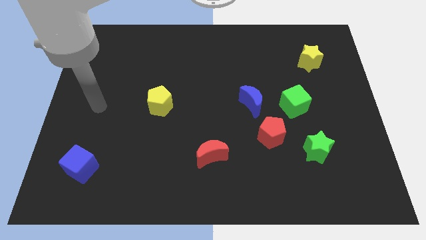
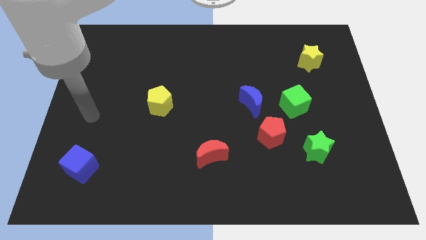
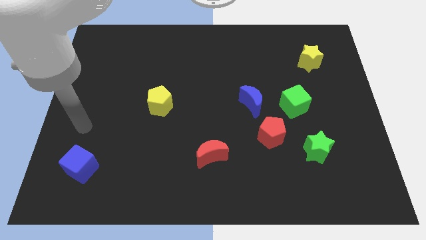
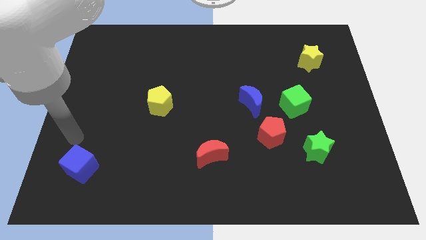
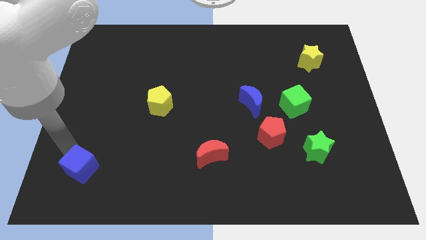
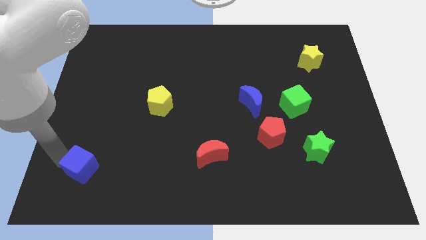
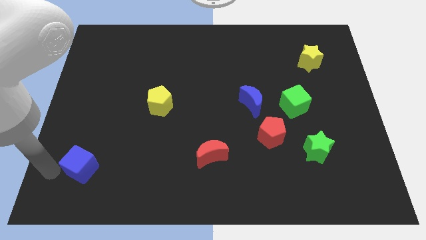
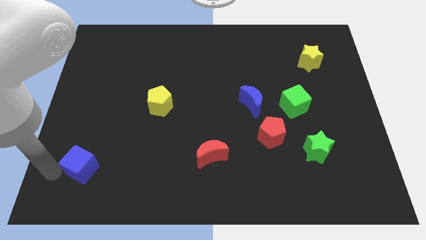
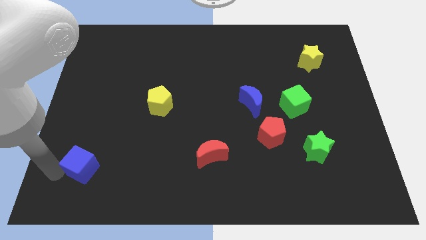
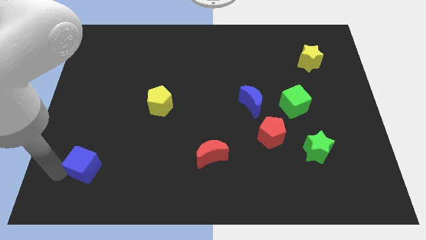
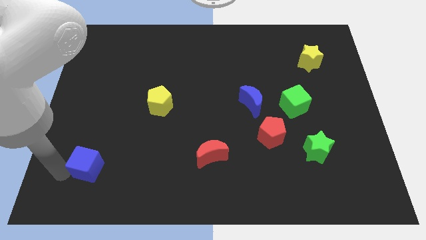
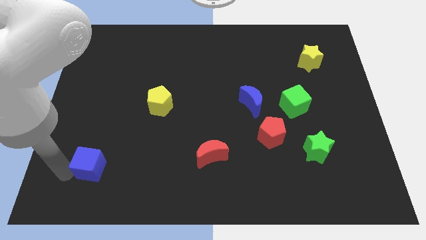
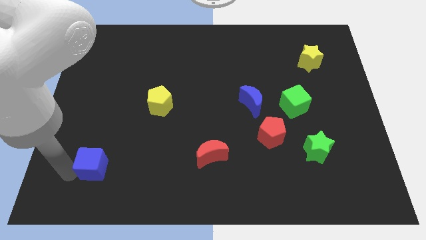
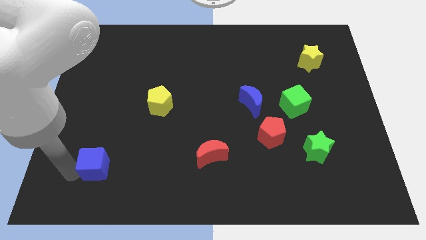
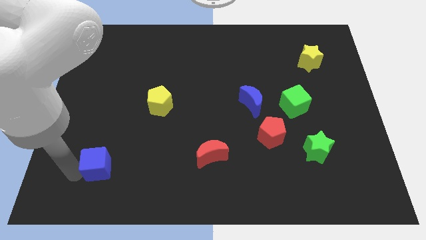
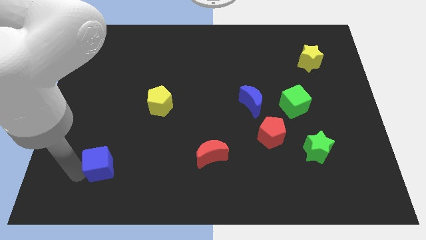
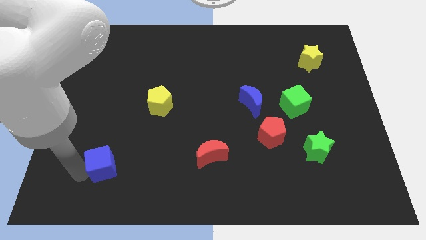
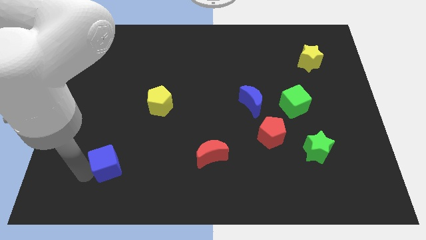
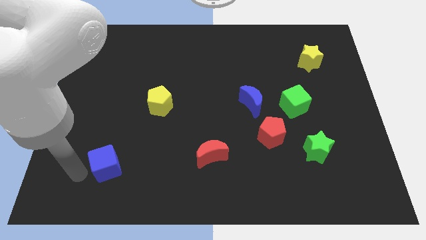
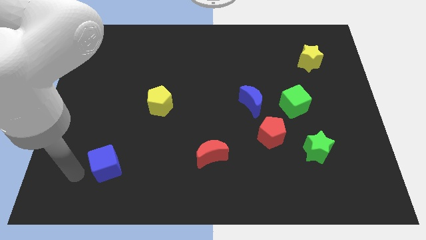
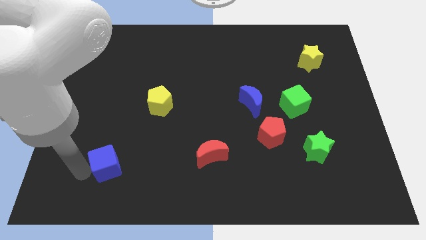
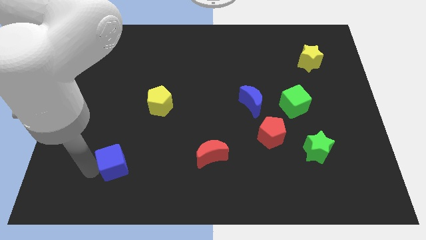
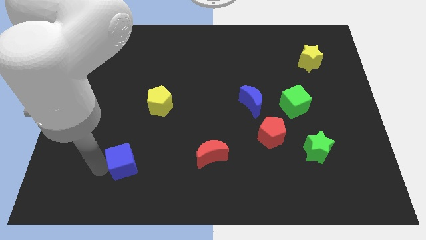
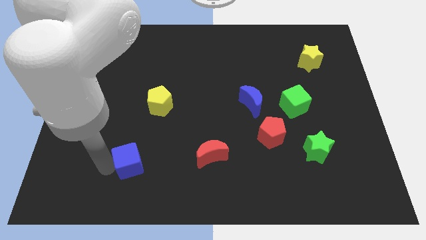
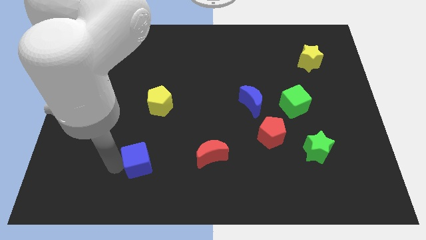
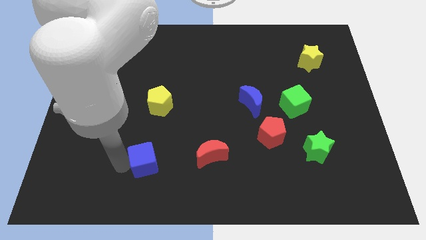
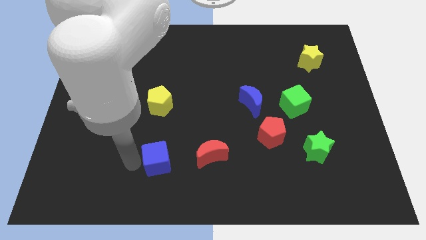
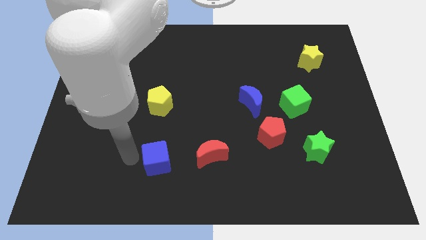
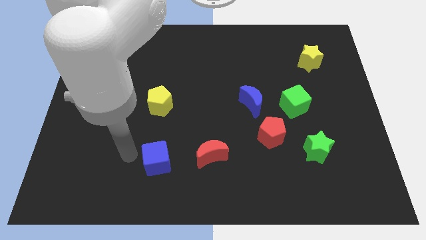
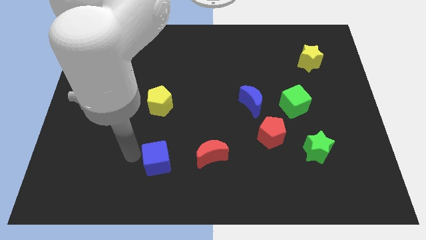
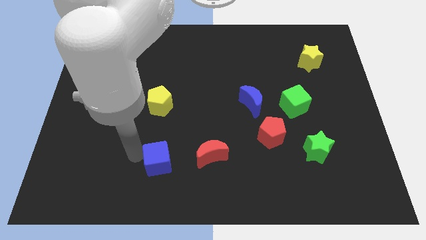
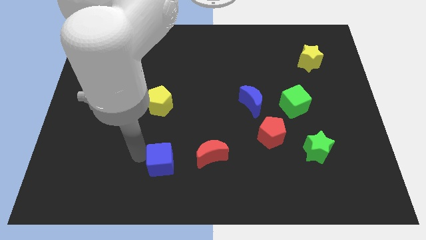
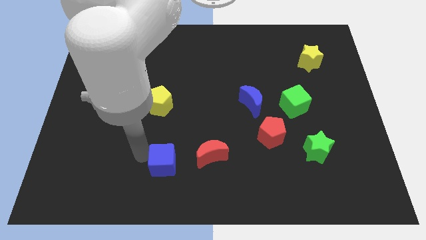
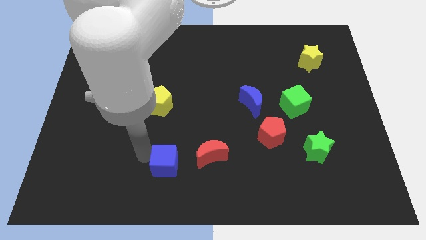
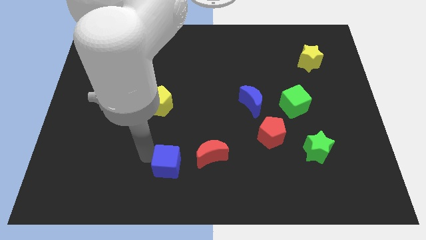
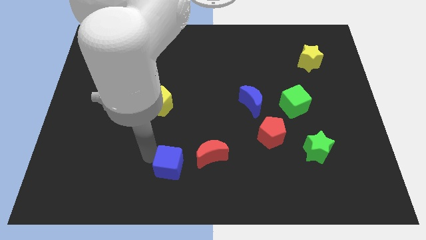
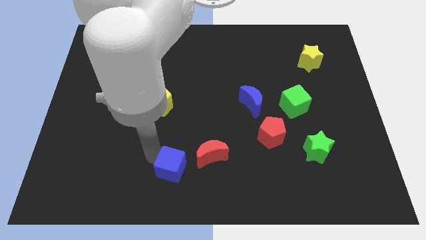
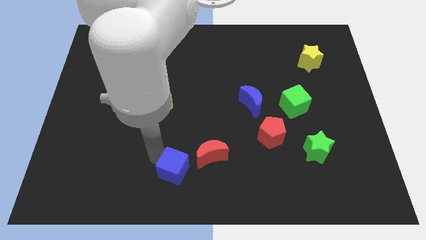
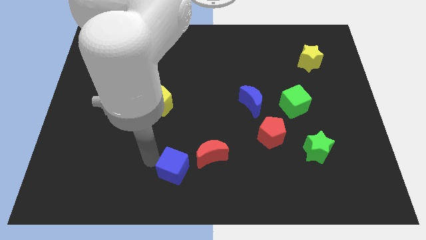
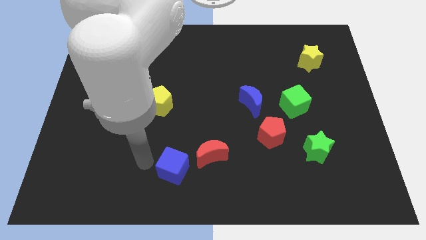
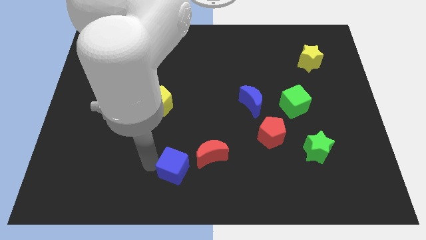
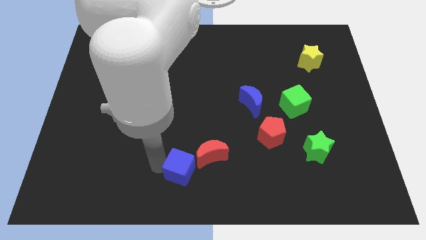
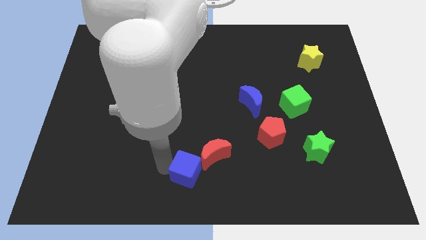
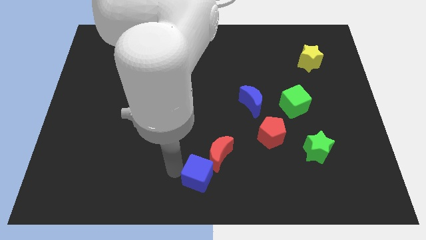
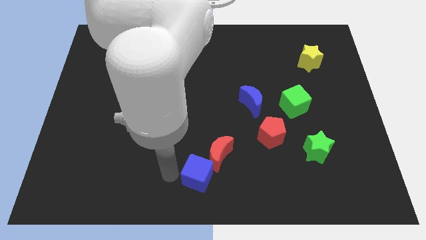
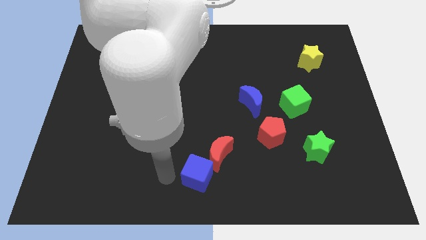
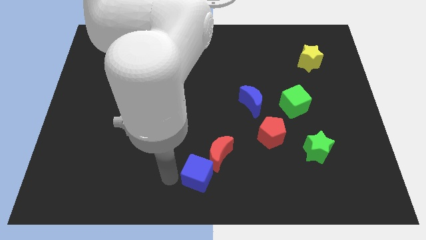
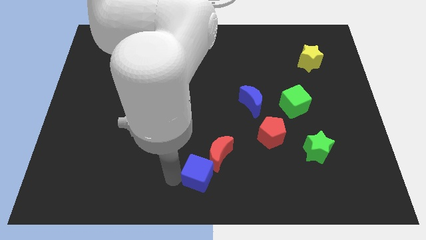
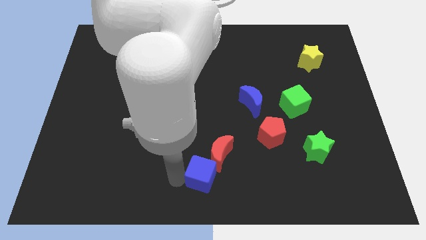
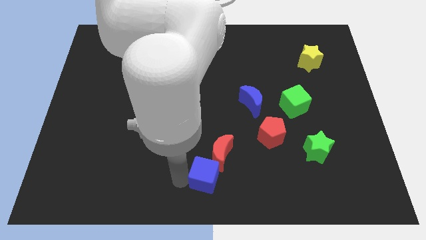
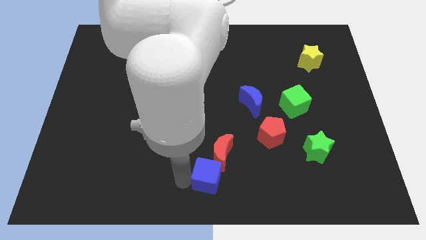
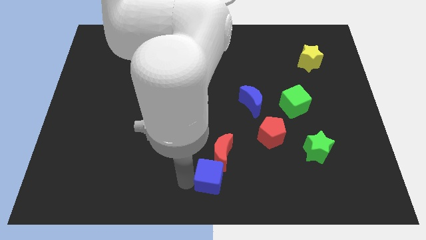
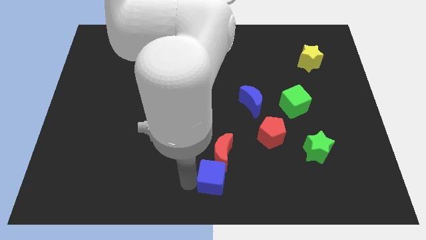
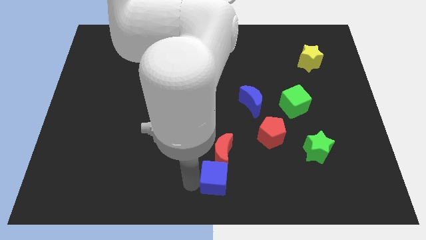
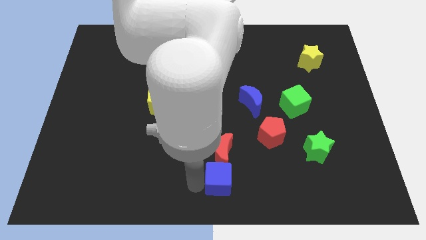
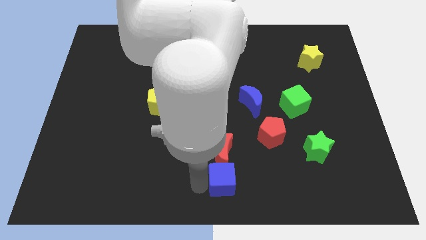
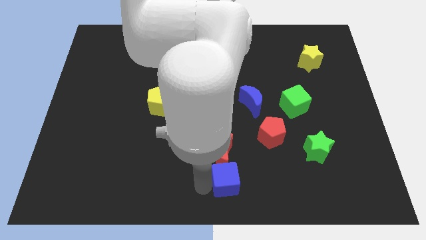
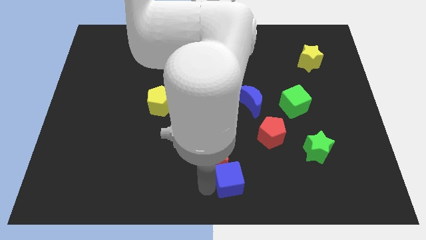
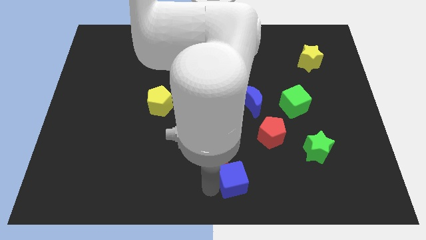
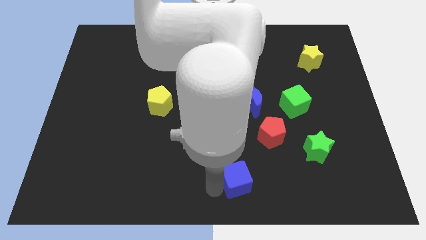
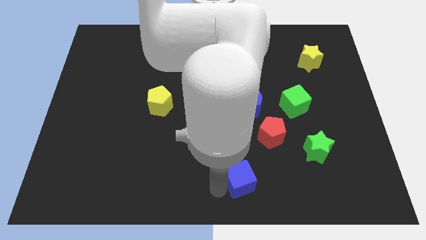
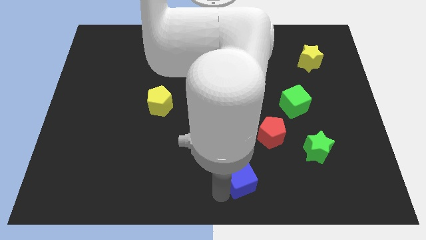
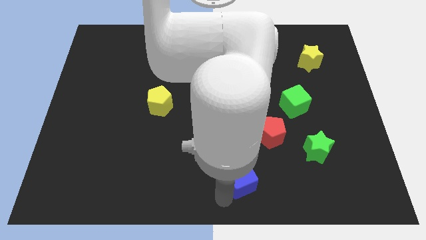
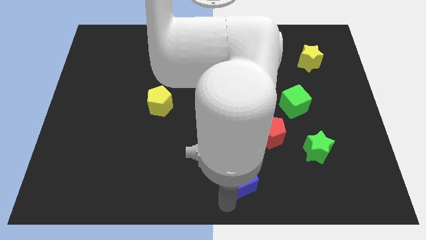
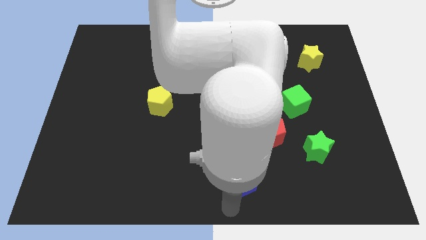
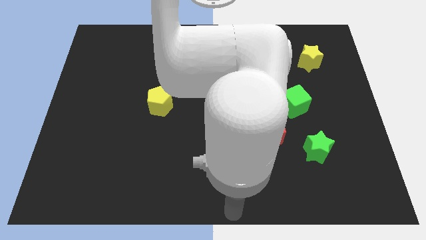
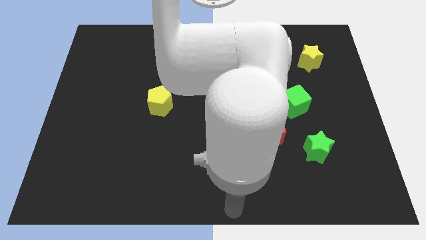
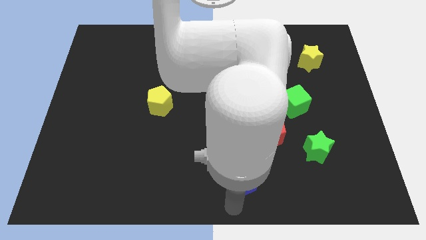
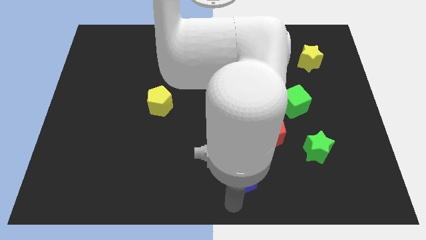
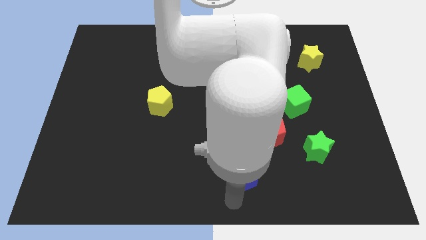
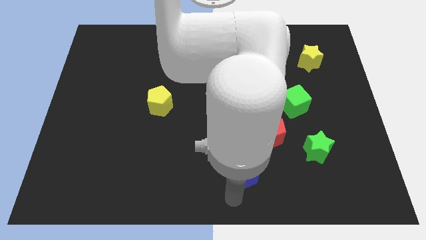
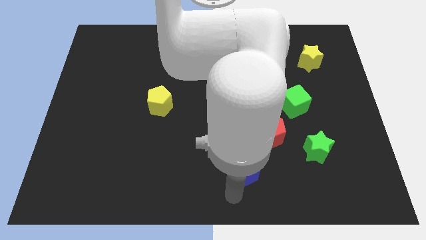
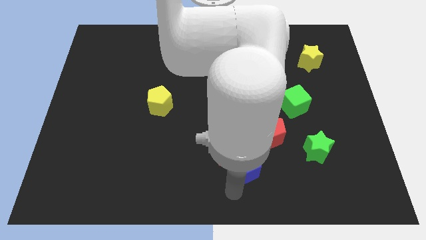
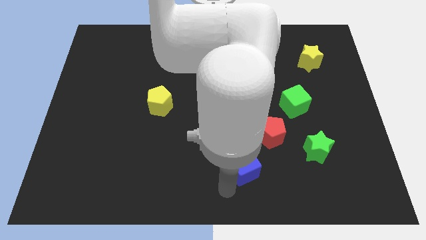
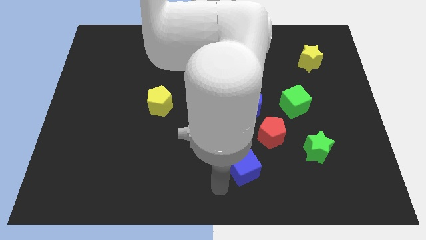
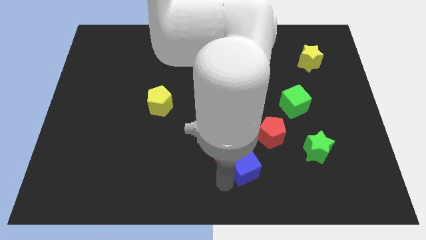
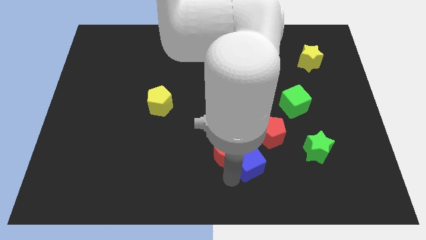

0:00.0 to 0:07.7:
push the blue cube to the left side of the green star
